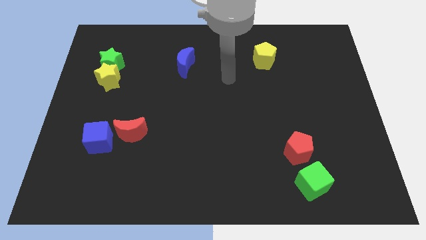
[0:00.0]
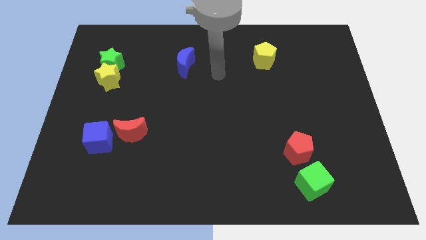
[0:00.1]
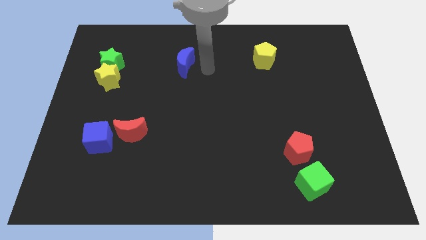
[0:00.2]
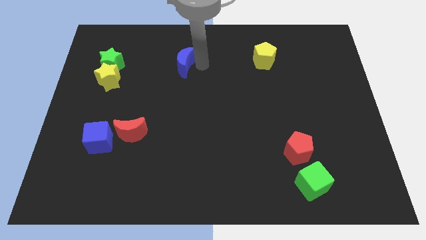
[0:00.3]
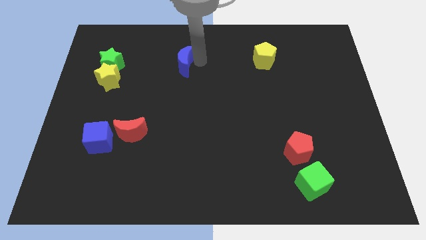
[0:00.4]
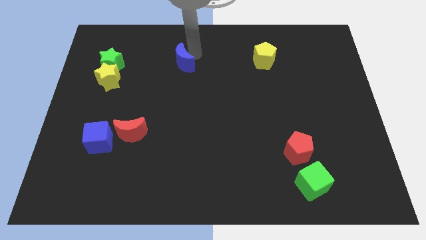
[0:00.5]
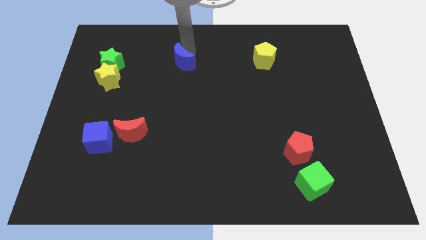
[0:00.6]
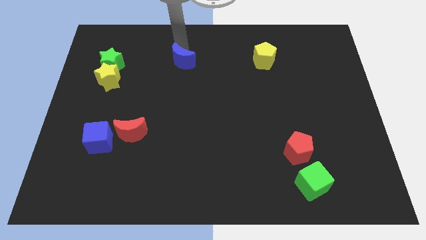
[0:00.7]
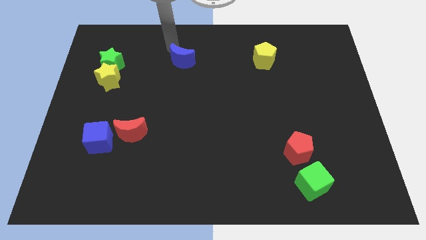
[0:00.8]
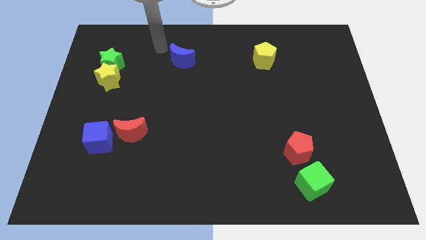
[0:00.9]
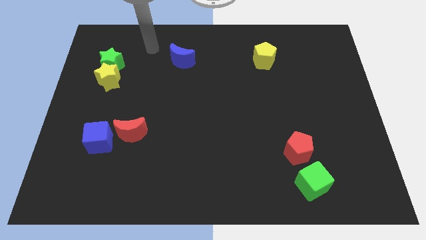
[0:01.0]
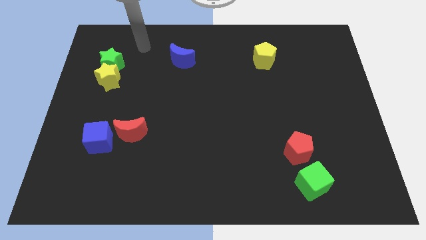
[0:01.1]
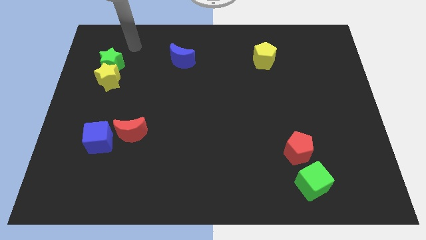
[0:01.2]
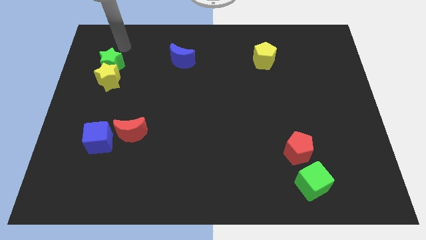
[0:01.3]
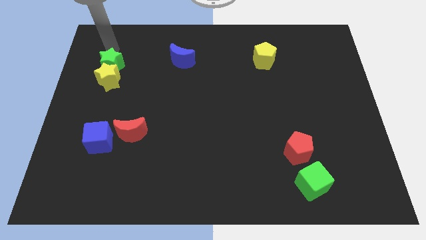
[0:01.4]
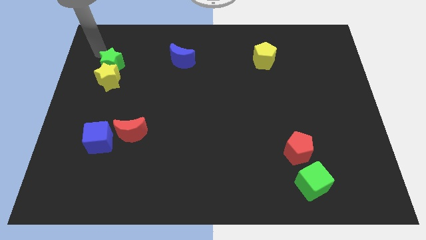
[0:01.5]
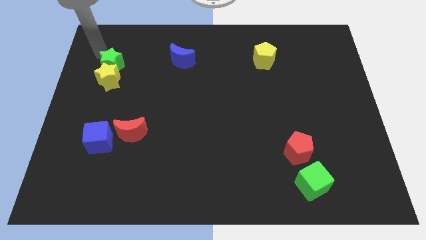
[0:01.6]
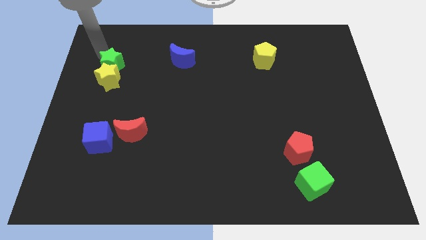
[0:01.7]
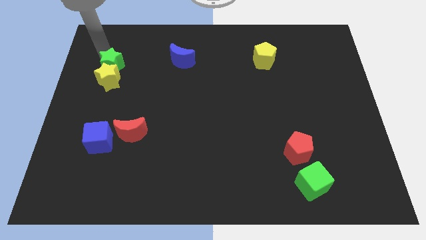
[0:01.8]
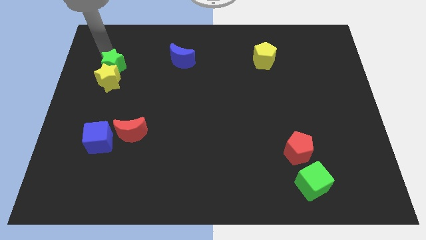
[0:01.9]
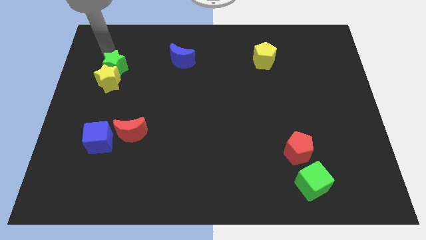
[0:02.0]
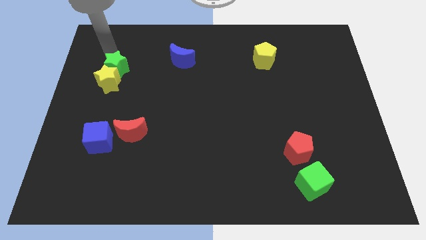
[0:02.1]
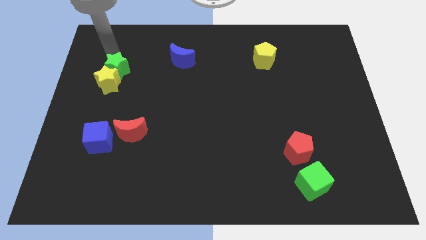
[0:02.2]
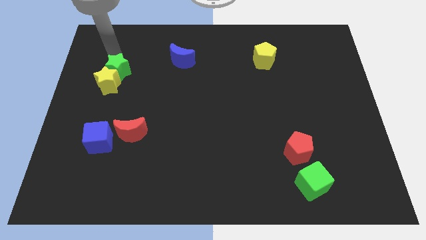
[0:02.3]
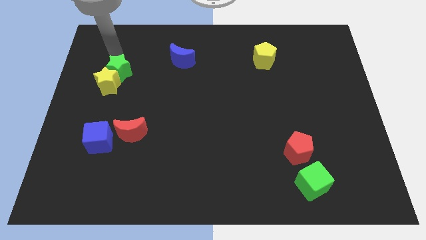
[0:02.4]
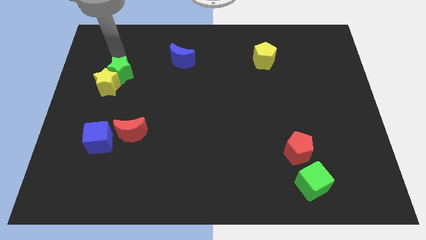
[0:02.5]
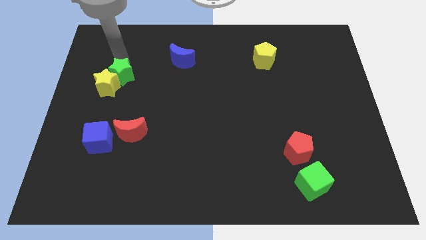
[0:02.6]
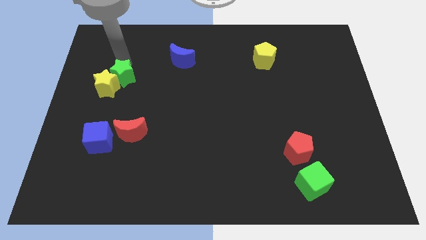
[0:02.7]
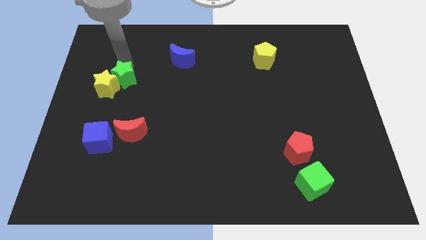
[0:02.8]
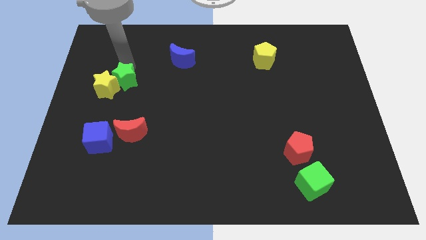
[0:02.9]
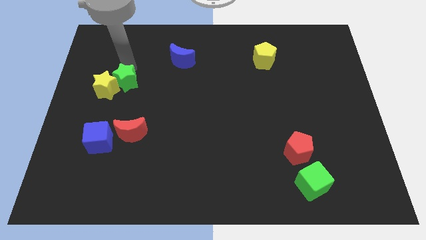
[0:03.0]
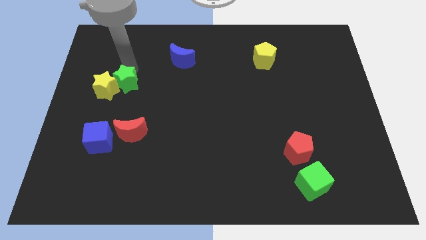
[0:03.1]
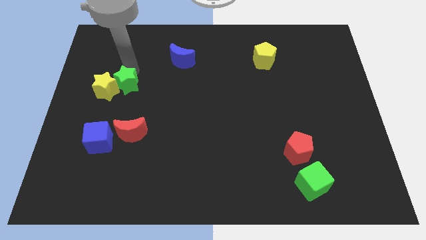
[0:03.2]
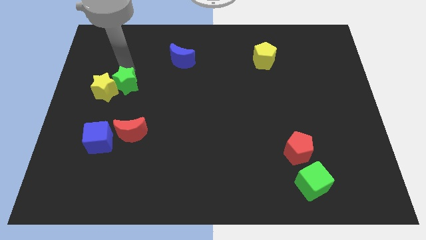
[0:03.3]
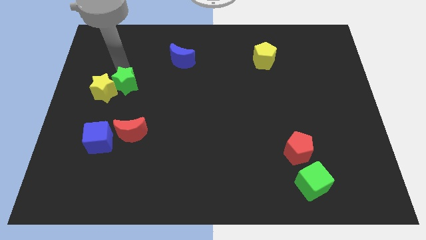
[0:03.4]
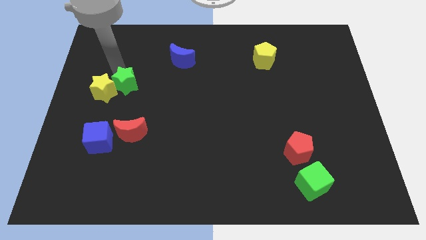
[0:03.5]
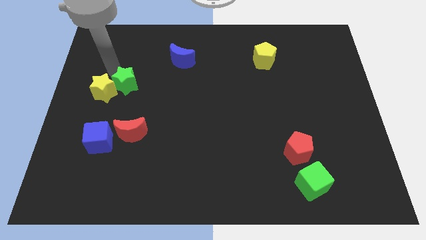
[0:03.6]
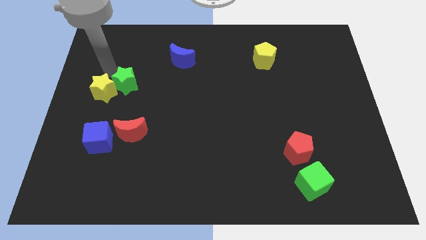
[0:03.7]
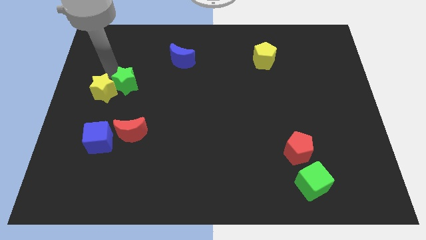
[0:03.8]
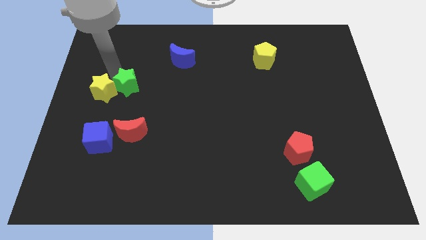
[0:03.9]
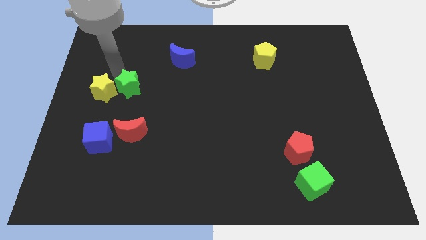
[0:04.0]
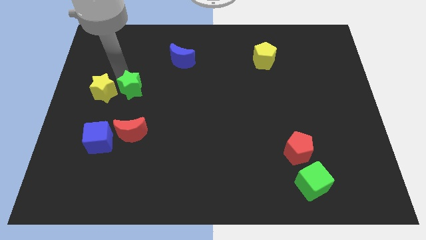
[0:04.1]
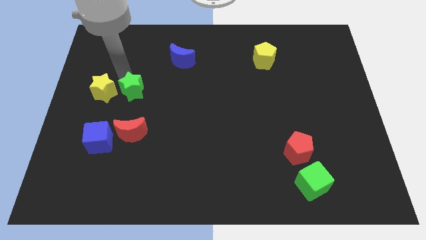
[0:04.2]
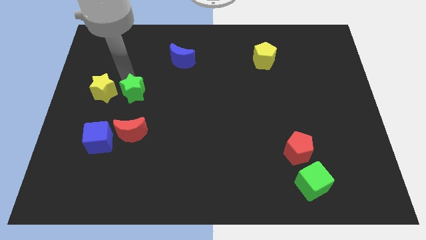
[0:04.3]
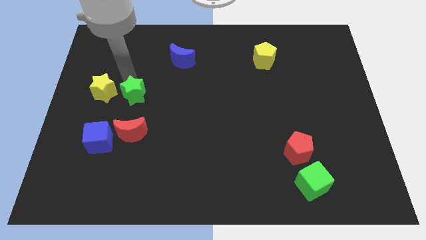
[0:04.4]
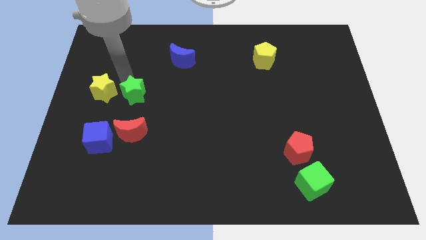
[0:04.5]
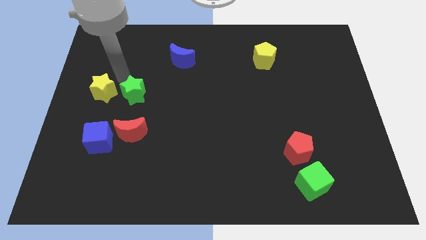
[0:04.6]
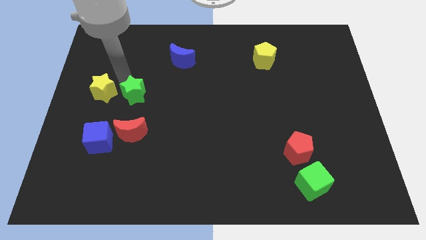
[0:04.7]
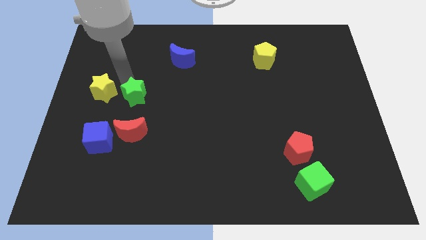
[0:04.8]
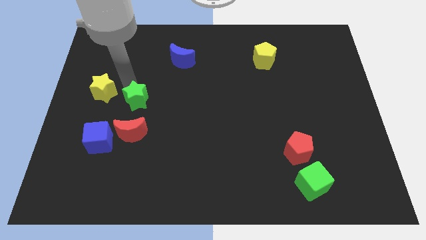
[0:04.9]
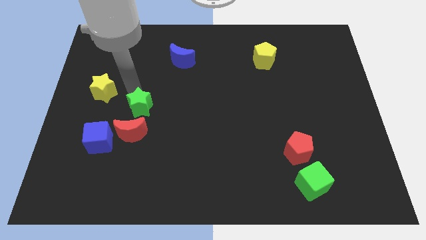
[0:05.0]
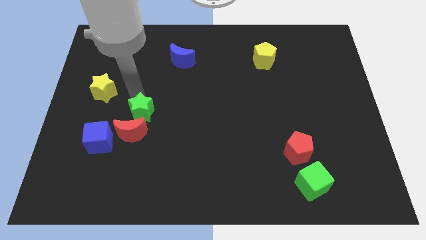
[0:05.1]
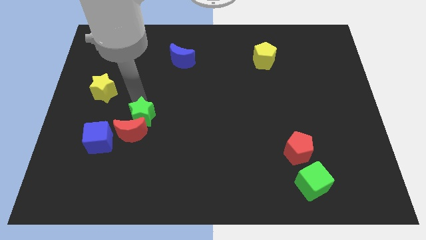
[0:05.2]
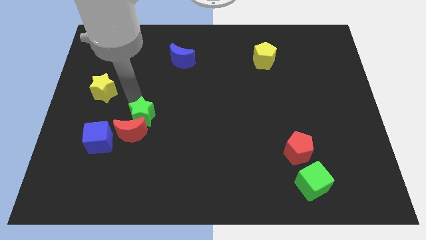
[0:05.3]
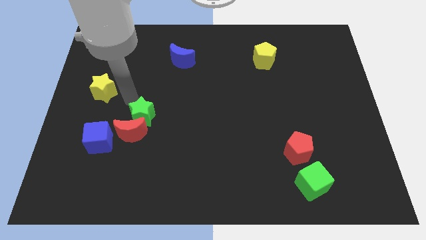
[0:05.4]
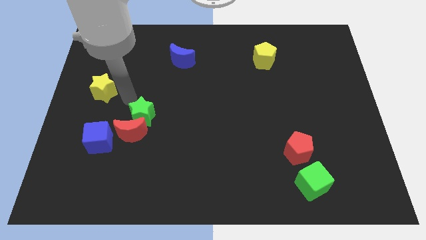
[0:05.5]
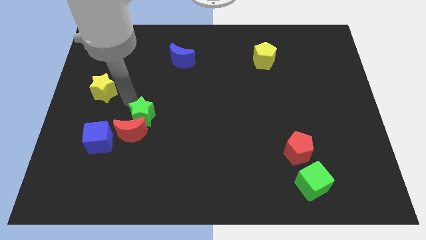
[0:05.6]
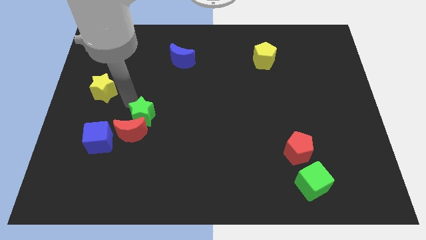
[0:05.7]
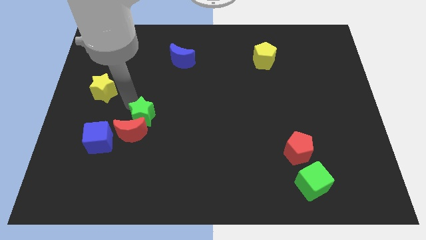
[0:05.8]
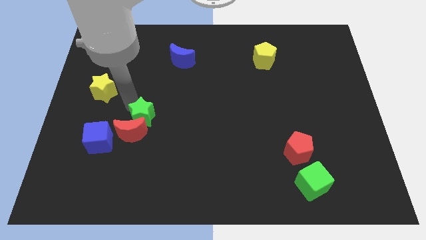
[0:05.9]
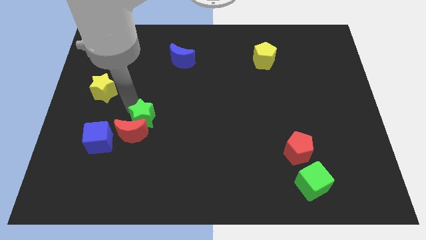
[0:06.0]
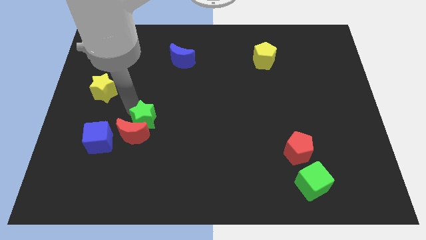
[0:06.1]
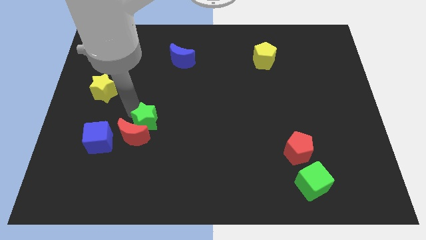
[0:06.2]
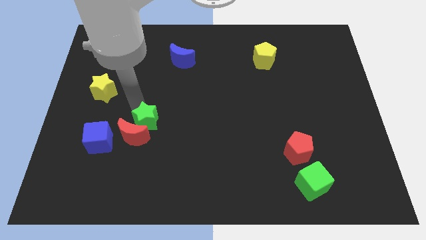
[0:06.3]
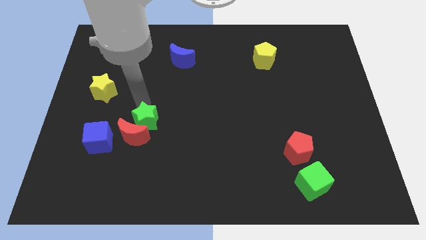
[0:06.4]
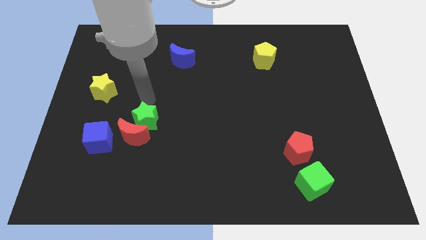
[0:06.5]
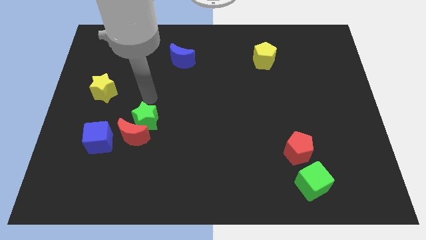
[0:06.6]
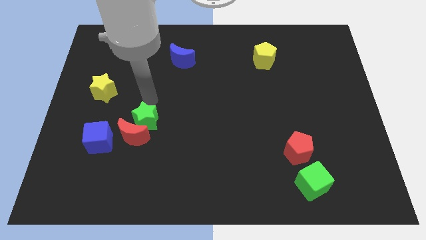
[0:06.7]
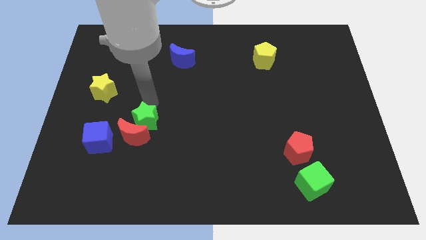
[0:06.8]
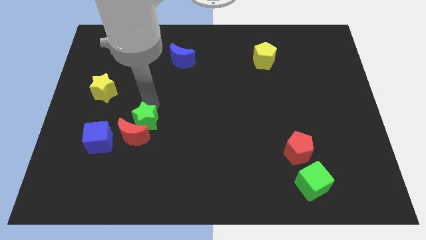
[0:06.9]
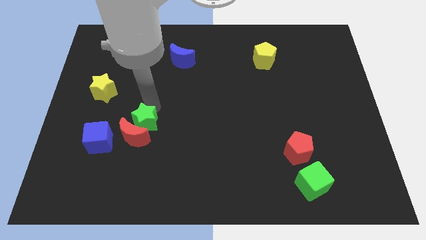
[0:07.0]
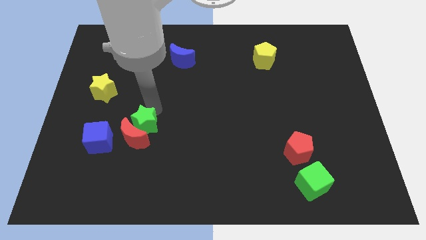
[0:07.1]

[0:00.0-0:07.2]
push the green star right of the blue cube
